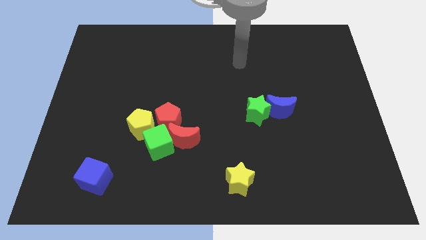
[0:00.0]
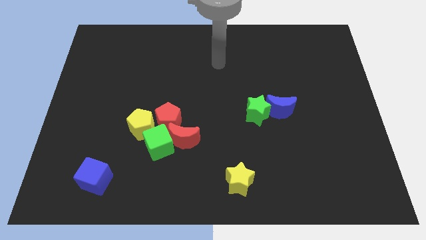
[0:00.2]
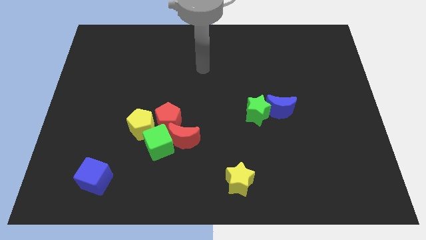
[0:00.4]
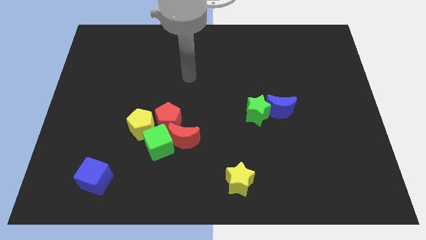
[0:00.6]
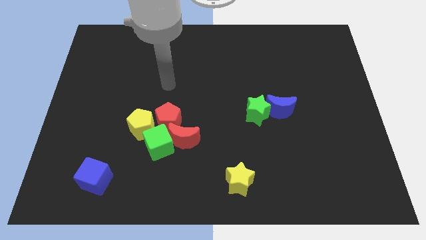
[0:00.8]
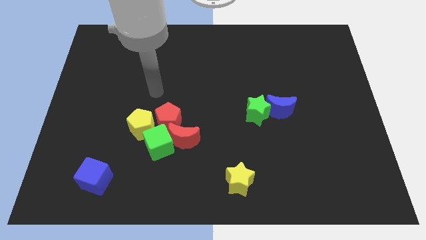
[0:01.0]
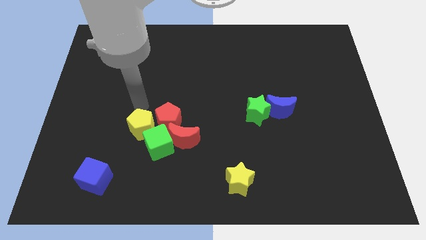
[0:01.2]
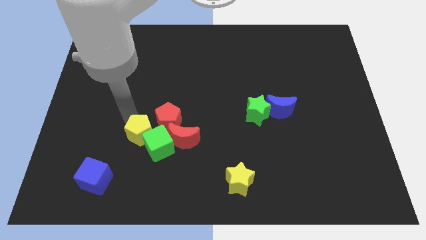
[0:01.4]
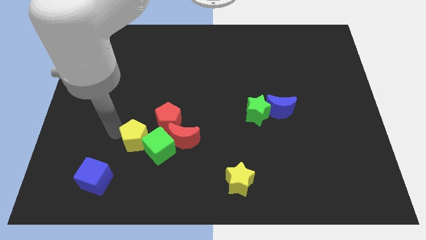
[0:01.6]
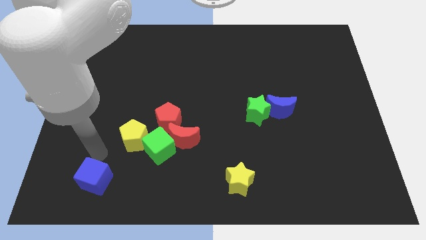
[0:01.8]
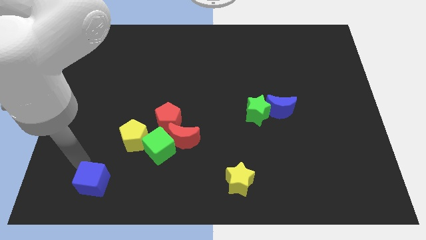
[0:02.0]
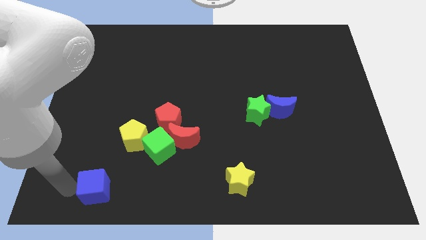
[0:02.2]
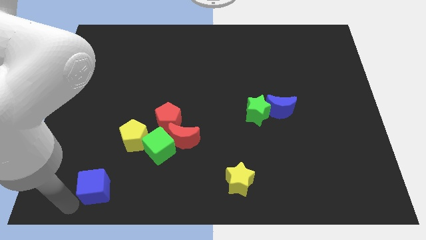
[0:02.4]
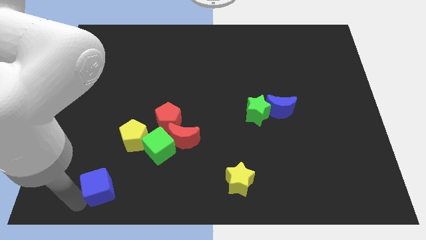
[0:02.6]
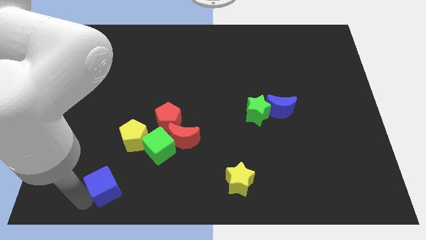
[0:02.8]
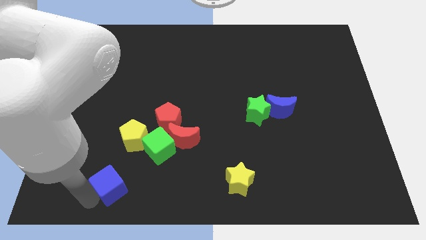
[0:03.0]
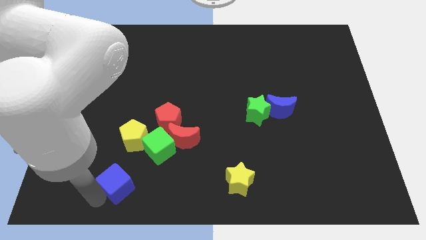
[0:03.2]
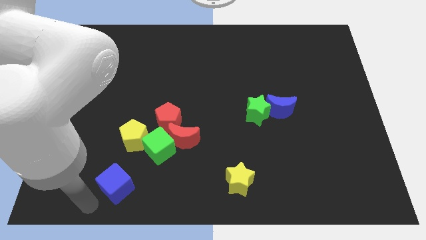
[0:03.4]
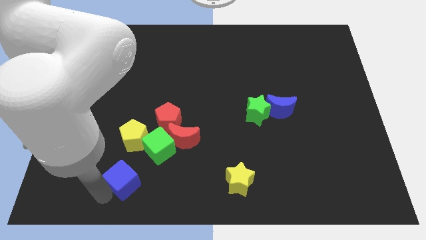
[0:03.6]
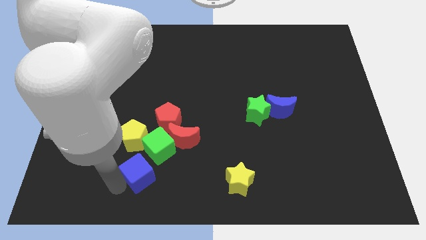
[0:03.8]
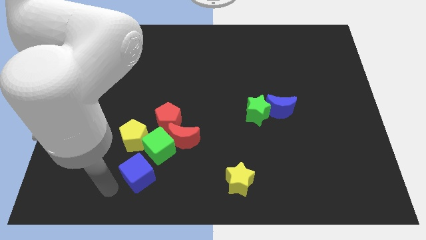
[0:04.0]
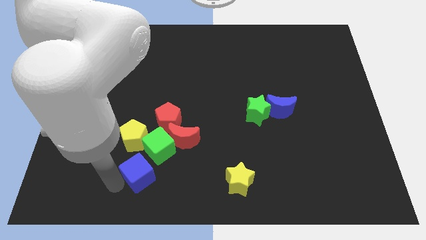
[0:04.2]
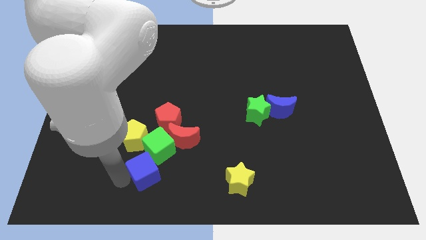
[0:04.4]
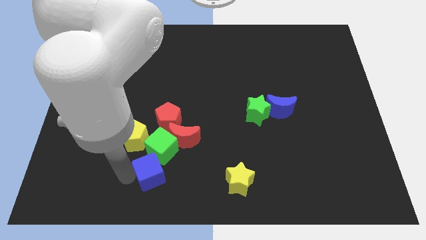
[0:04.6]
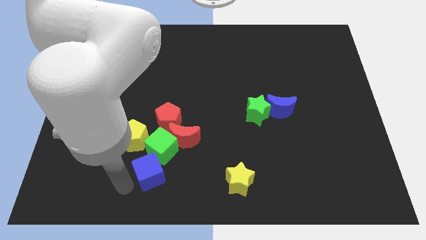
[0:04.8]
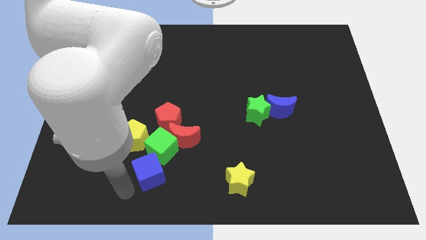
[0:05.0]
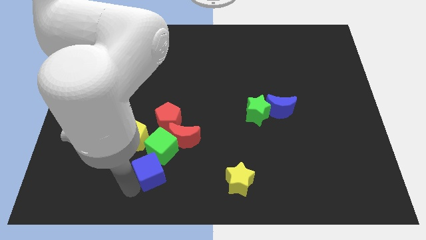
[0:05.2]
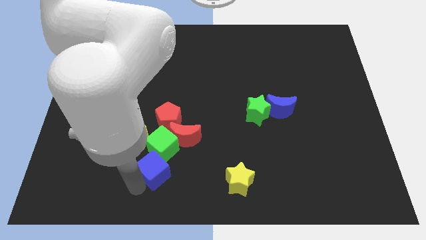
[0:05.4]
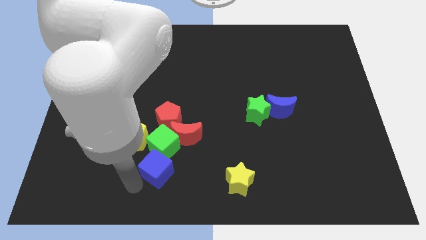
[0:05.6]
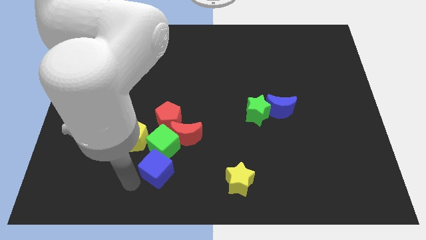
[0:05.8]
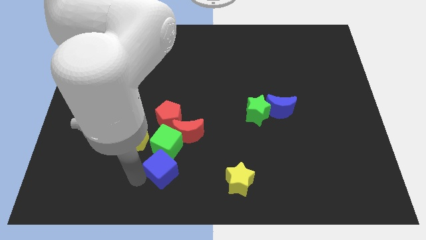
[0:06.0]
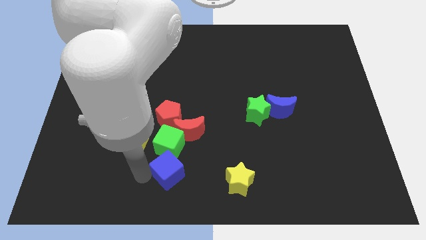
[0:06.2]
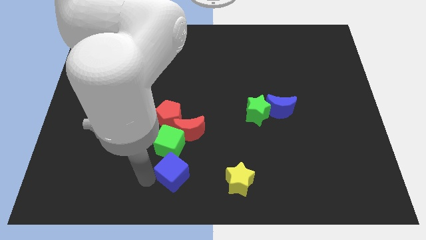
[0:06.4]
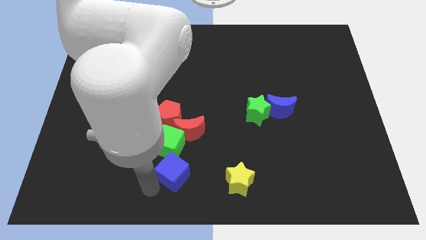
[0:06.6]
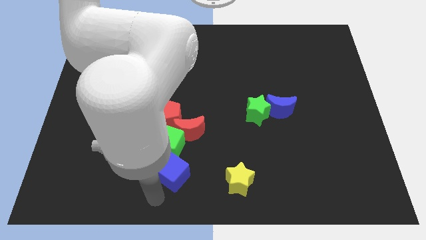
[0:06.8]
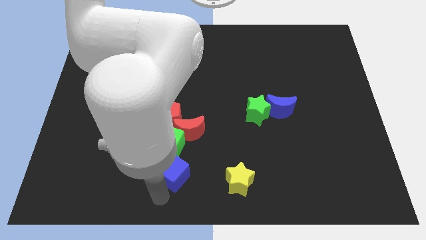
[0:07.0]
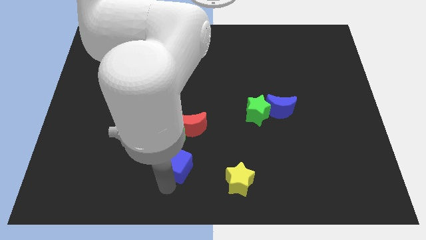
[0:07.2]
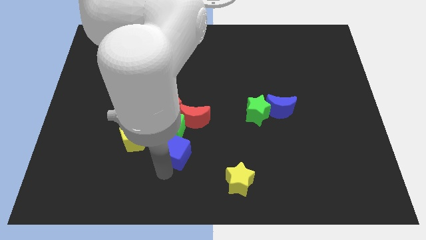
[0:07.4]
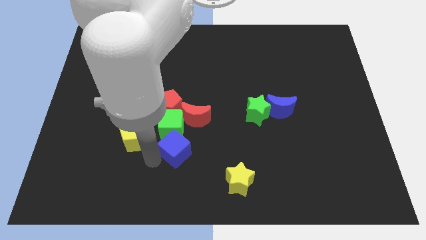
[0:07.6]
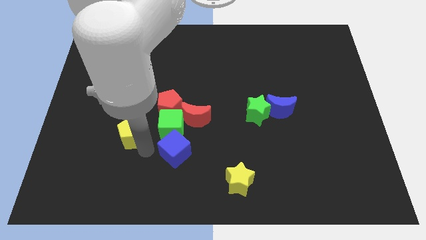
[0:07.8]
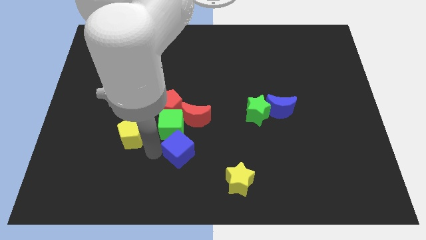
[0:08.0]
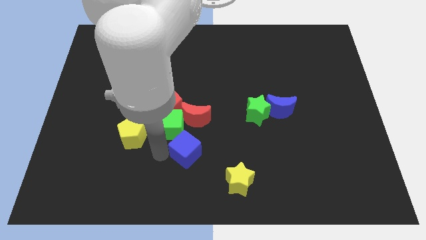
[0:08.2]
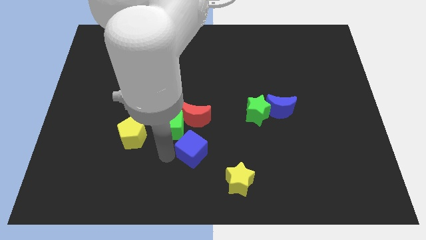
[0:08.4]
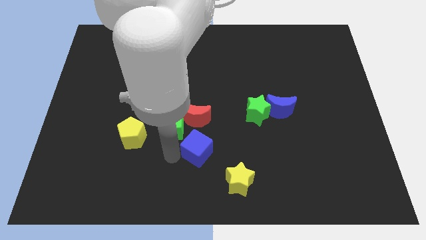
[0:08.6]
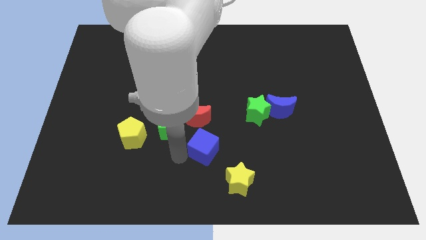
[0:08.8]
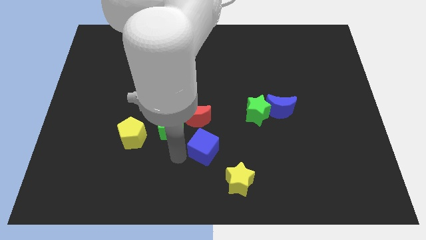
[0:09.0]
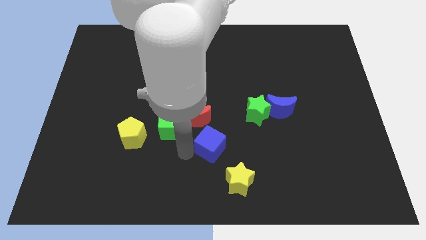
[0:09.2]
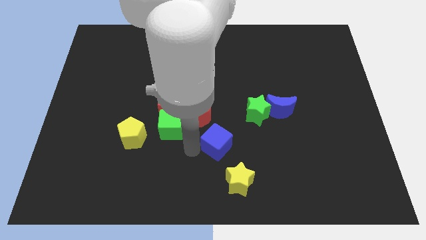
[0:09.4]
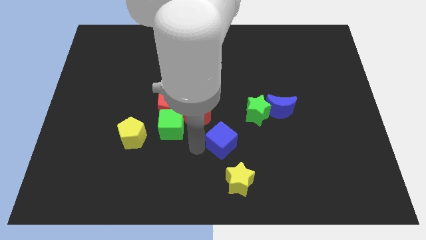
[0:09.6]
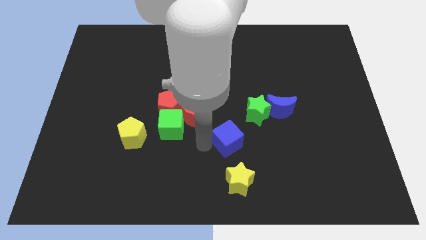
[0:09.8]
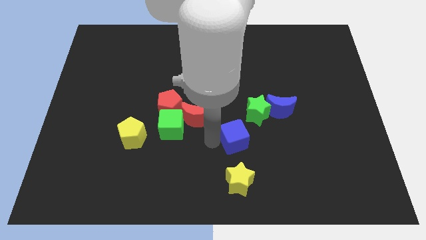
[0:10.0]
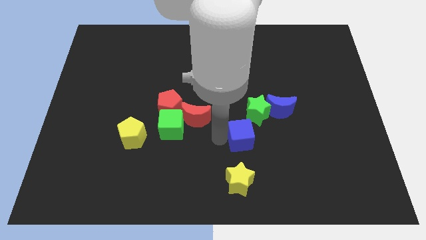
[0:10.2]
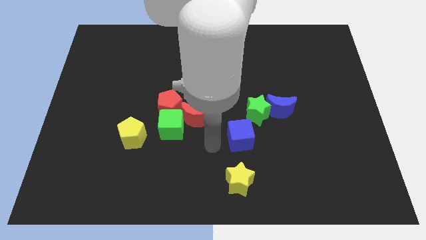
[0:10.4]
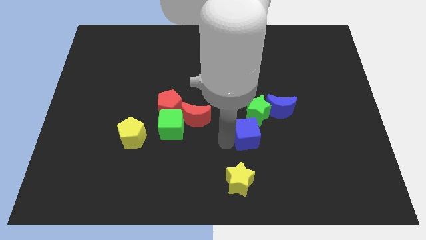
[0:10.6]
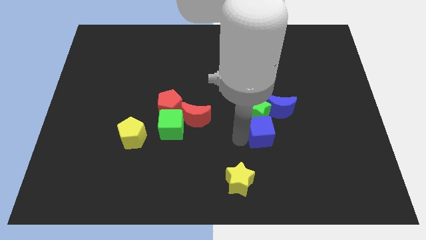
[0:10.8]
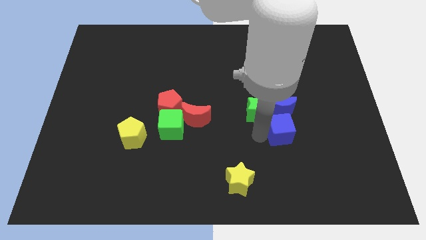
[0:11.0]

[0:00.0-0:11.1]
slide the blue cube to the bottom right side of the blue moon

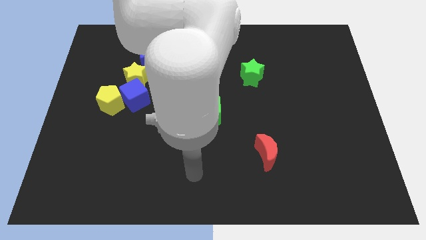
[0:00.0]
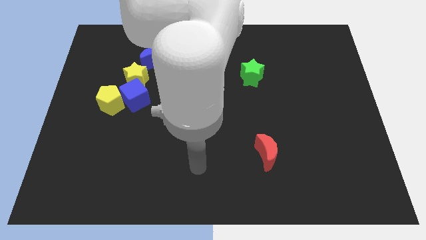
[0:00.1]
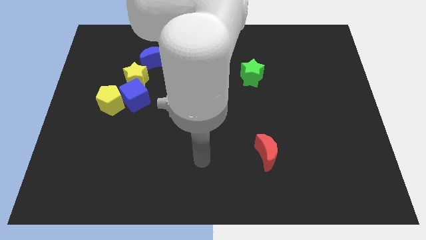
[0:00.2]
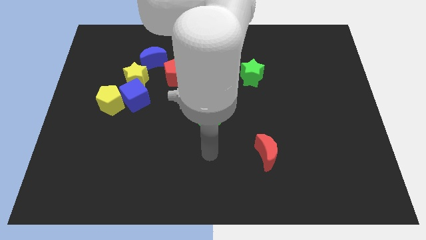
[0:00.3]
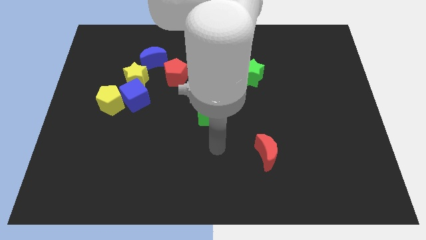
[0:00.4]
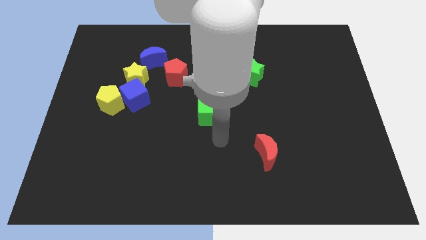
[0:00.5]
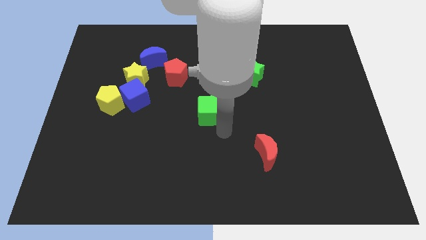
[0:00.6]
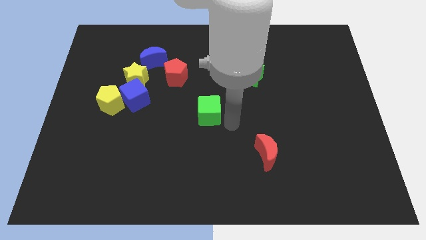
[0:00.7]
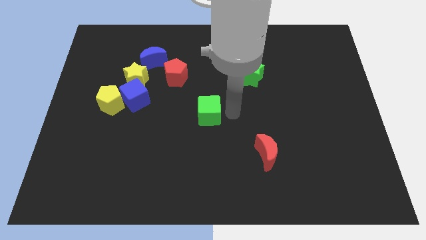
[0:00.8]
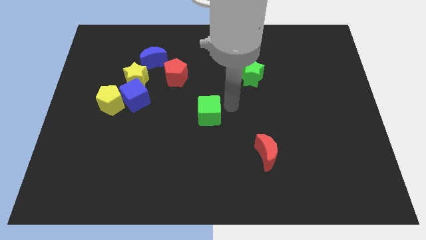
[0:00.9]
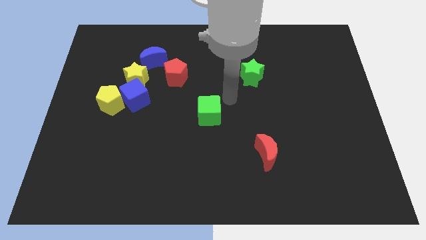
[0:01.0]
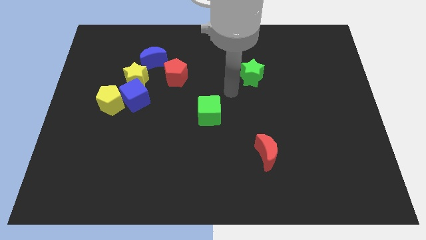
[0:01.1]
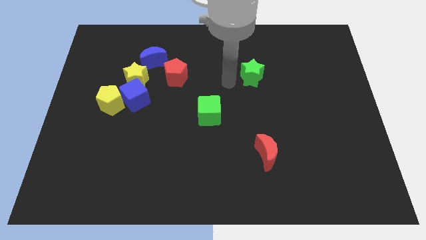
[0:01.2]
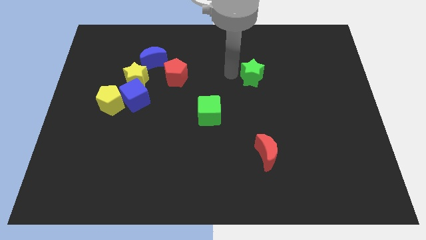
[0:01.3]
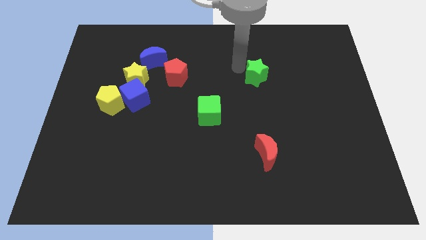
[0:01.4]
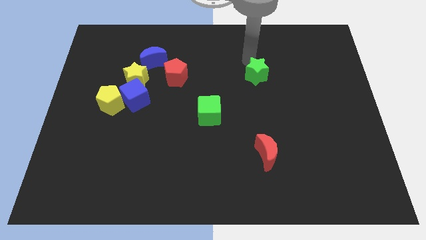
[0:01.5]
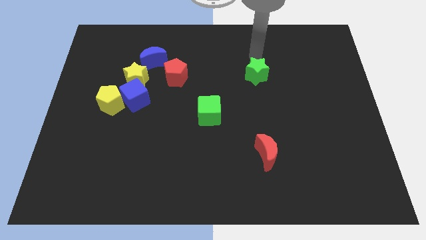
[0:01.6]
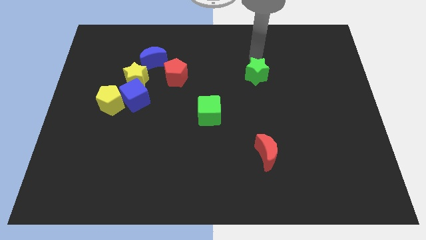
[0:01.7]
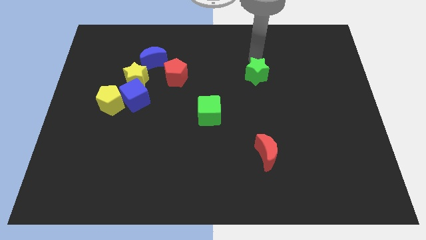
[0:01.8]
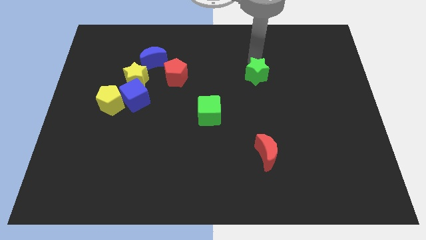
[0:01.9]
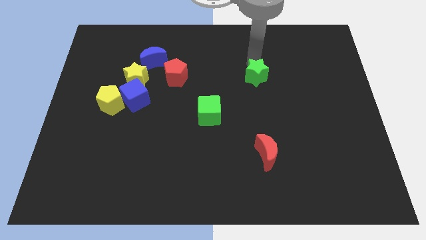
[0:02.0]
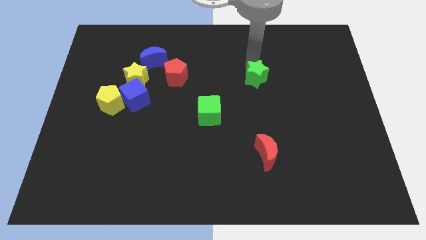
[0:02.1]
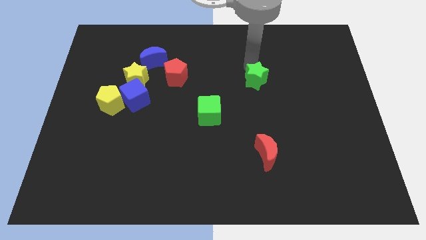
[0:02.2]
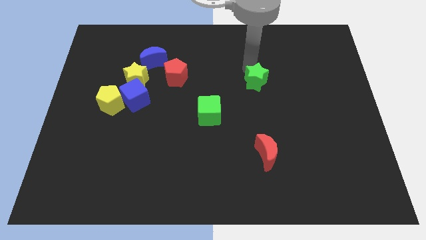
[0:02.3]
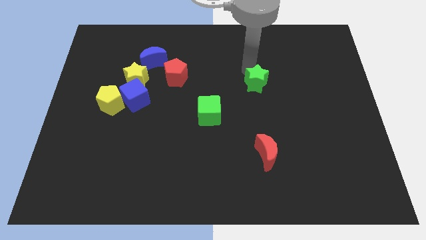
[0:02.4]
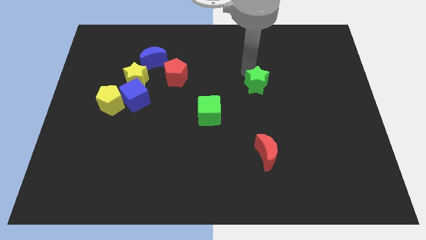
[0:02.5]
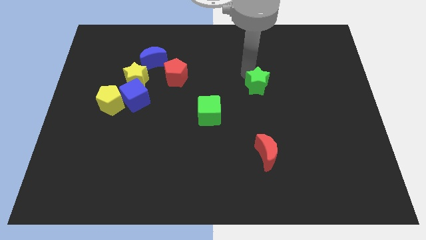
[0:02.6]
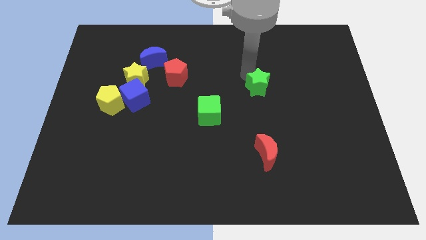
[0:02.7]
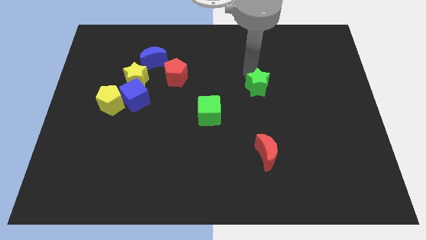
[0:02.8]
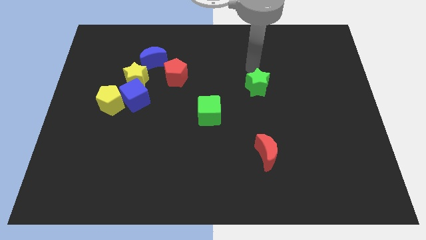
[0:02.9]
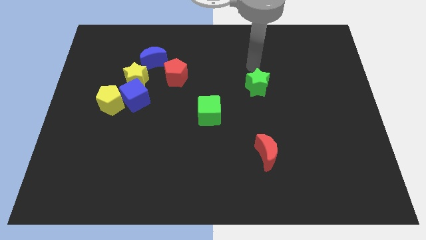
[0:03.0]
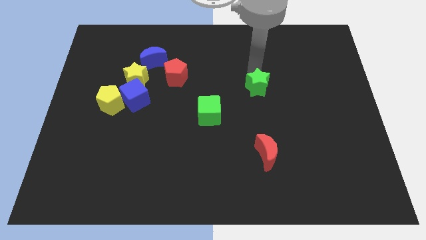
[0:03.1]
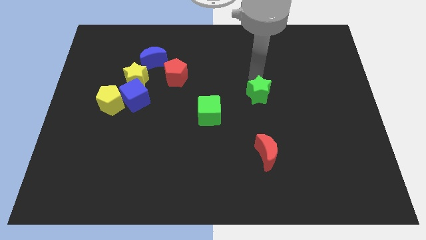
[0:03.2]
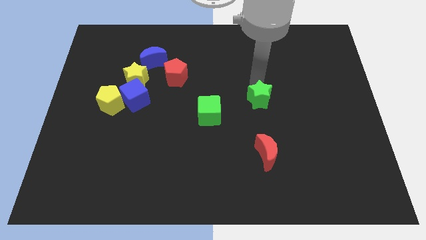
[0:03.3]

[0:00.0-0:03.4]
slide the green star above the red moon
